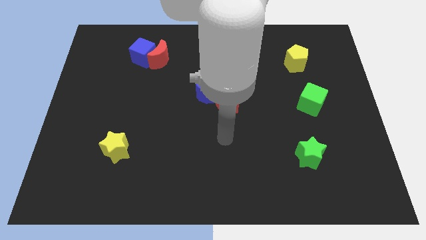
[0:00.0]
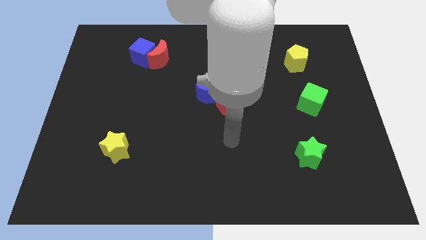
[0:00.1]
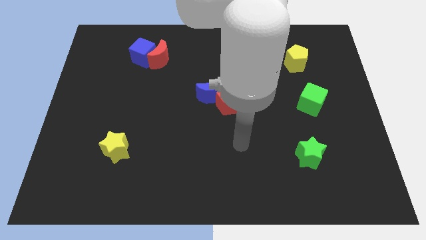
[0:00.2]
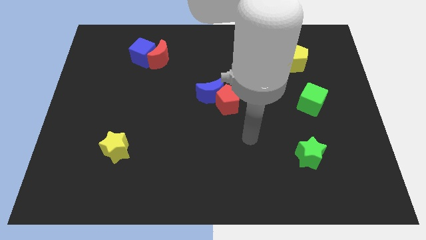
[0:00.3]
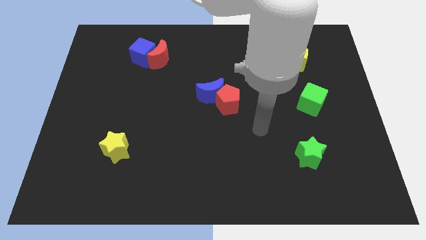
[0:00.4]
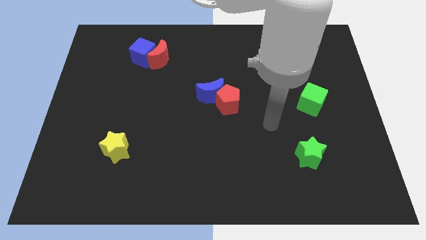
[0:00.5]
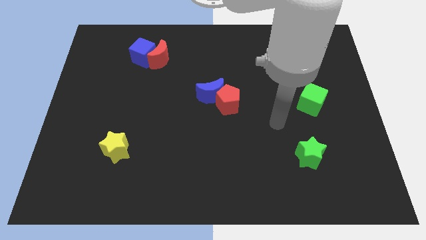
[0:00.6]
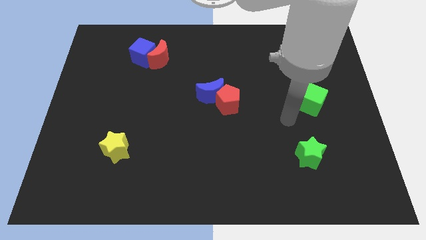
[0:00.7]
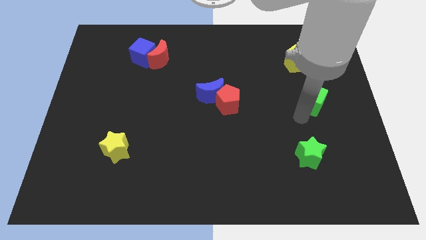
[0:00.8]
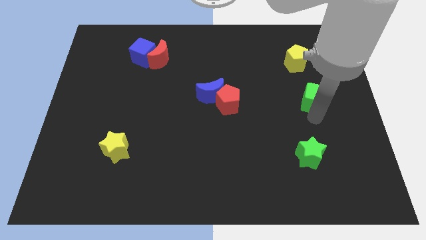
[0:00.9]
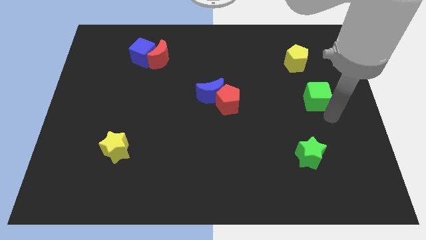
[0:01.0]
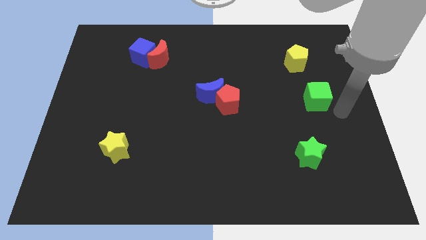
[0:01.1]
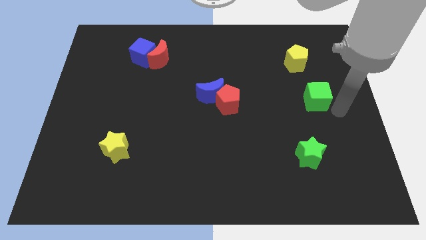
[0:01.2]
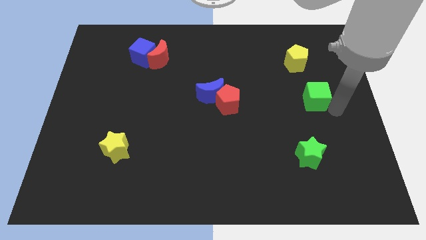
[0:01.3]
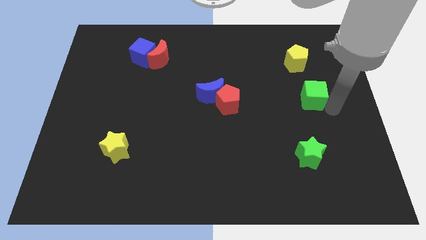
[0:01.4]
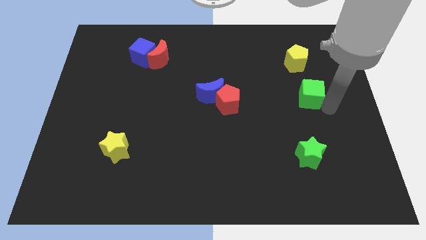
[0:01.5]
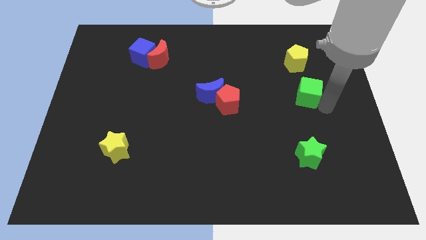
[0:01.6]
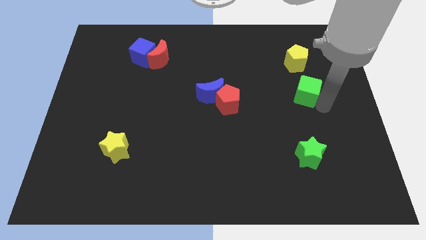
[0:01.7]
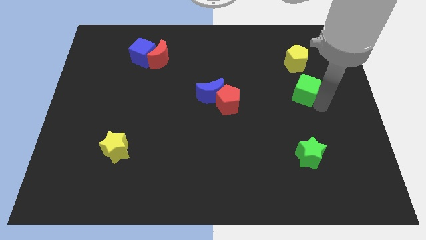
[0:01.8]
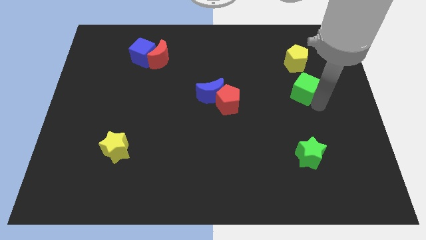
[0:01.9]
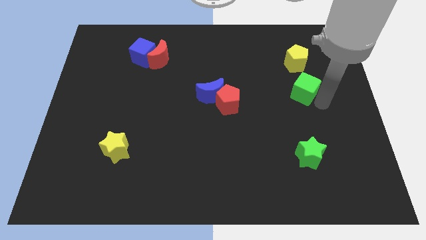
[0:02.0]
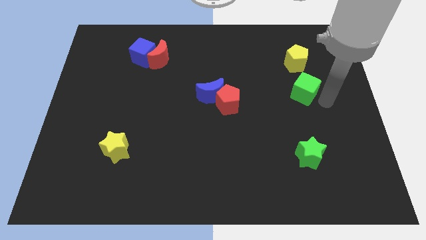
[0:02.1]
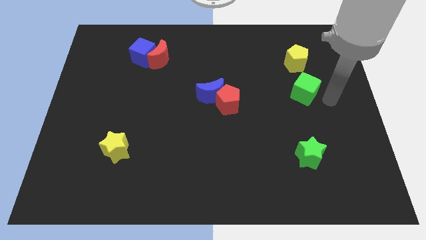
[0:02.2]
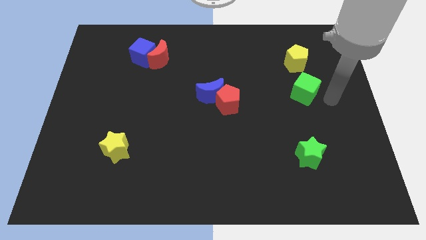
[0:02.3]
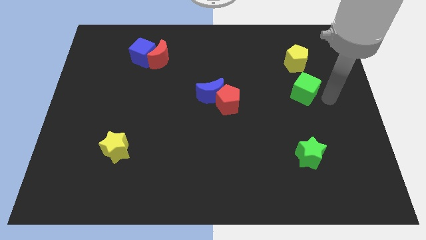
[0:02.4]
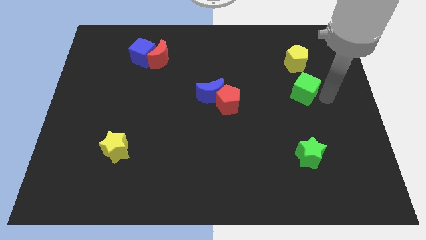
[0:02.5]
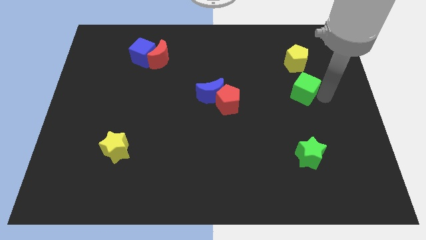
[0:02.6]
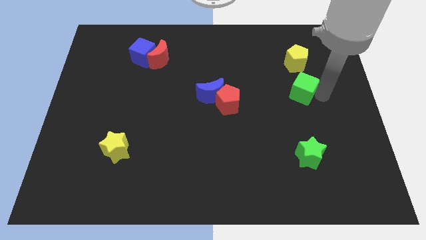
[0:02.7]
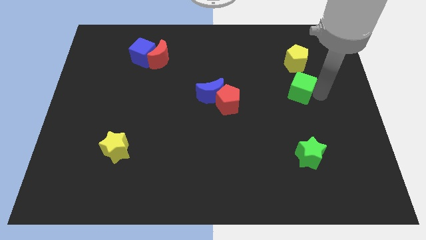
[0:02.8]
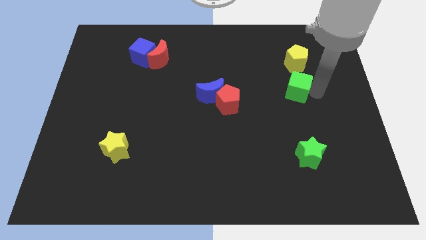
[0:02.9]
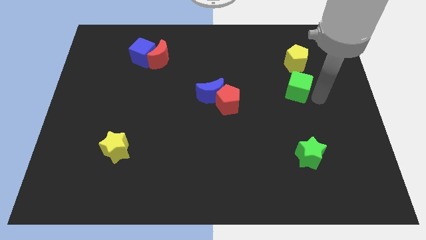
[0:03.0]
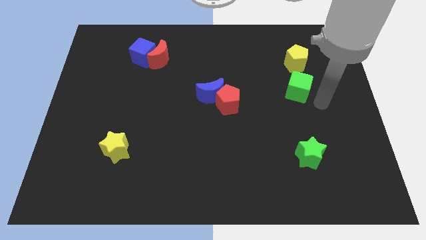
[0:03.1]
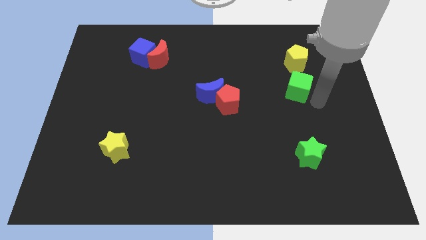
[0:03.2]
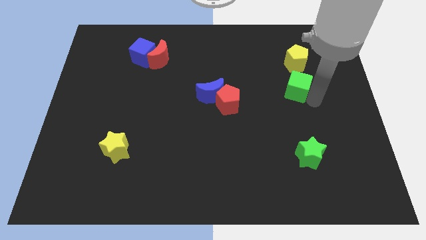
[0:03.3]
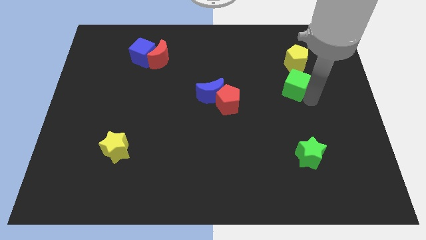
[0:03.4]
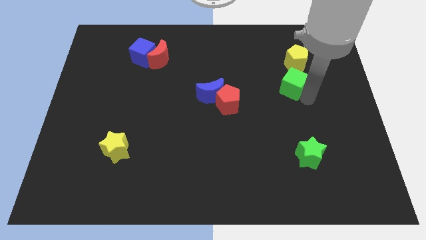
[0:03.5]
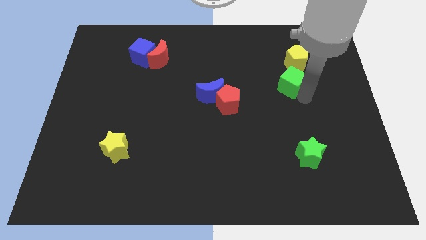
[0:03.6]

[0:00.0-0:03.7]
slightly move the green cube diagonally up and left

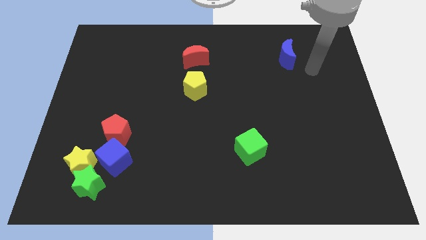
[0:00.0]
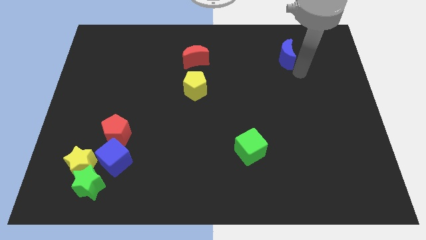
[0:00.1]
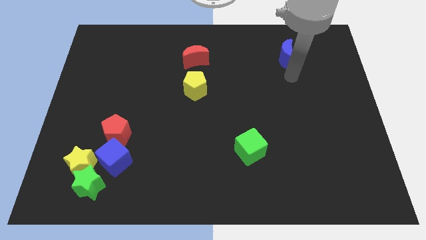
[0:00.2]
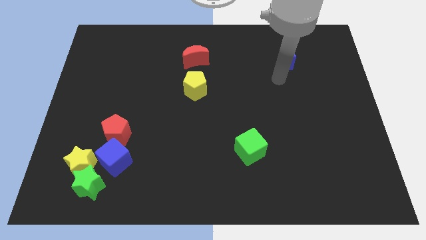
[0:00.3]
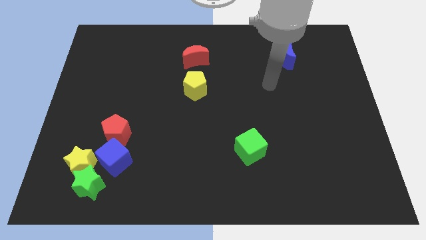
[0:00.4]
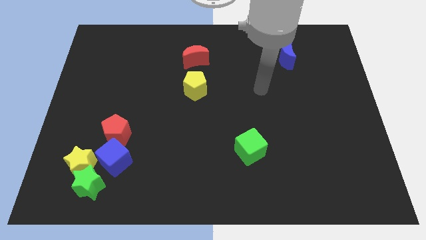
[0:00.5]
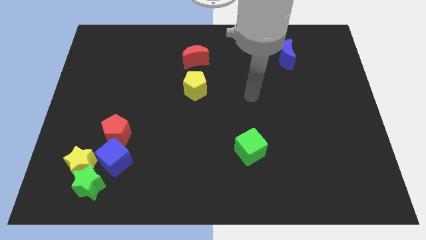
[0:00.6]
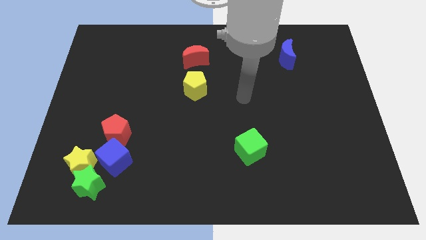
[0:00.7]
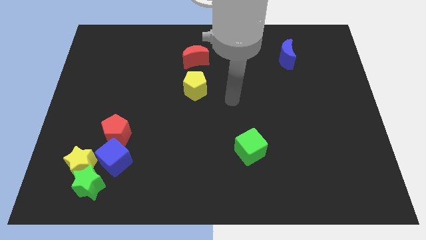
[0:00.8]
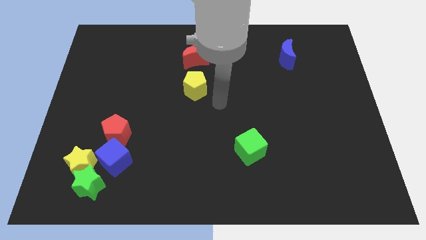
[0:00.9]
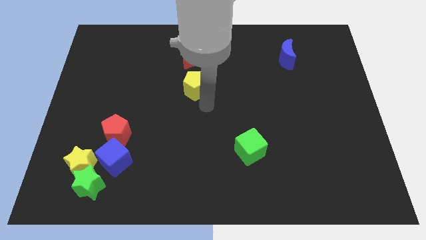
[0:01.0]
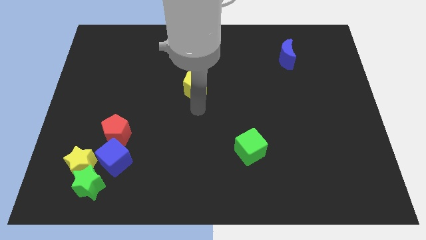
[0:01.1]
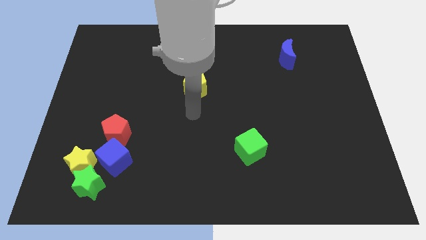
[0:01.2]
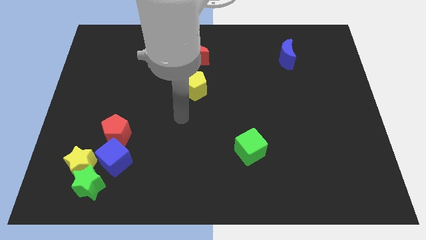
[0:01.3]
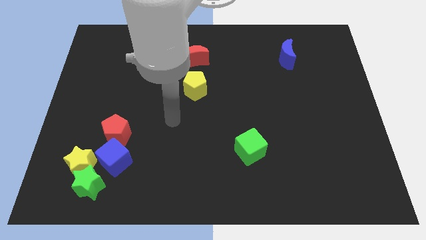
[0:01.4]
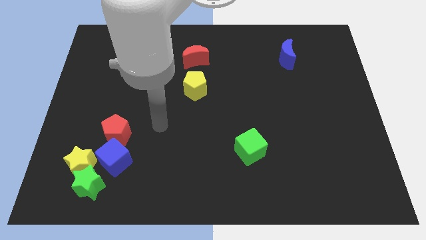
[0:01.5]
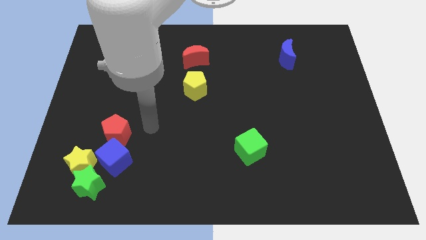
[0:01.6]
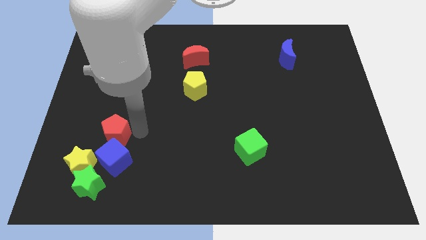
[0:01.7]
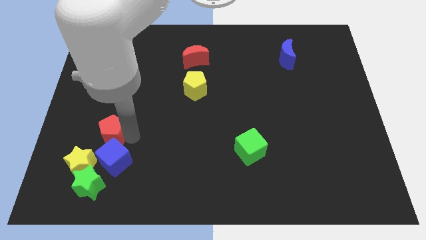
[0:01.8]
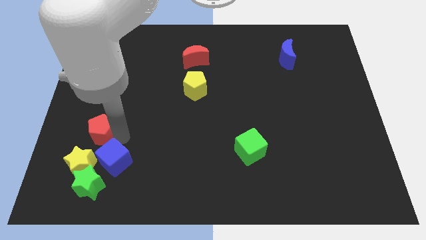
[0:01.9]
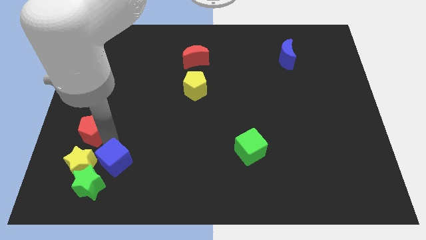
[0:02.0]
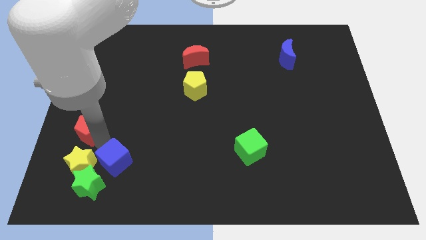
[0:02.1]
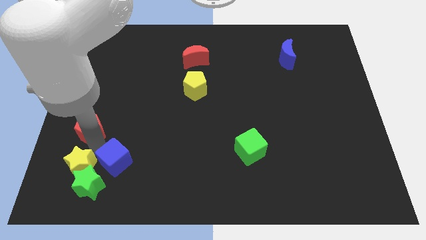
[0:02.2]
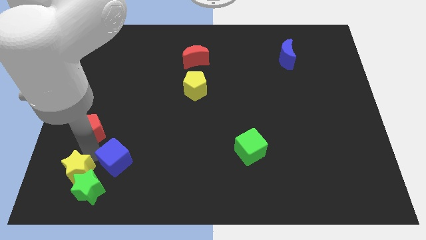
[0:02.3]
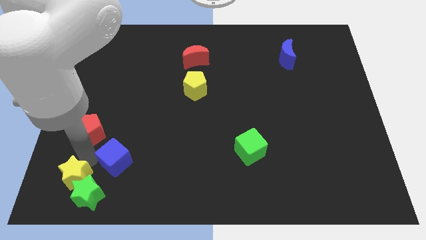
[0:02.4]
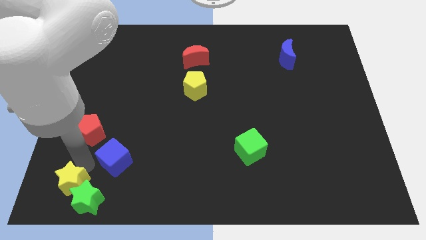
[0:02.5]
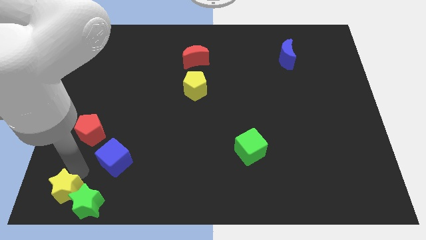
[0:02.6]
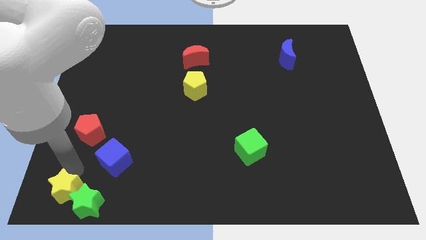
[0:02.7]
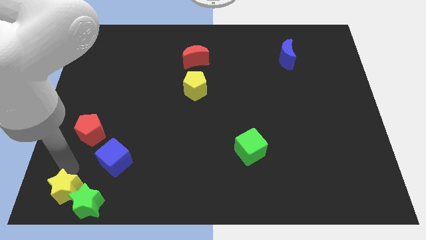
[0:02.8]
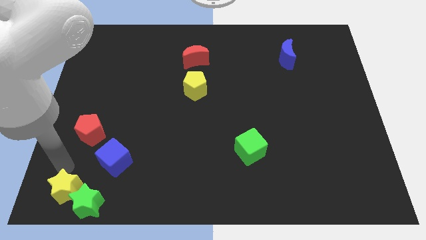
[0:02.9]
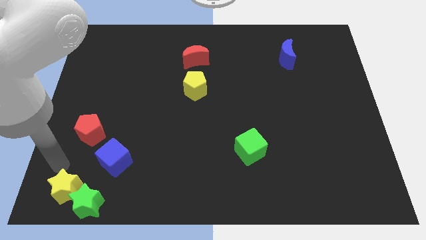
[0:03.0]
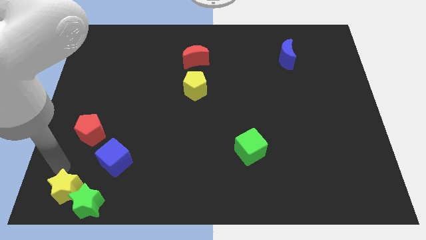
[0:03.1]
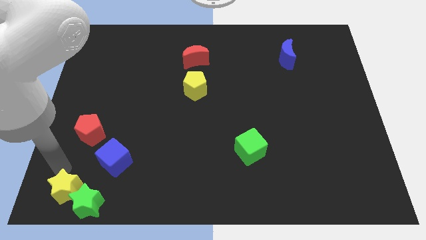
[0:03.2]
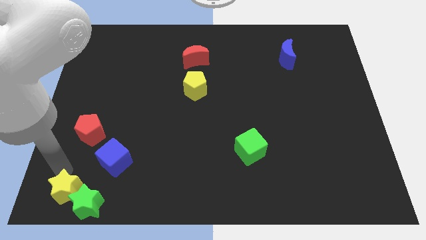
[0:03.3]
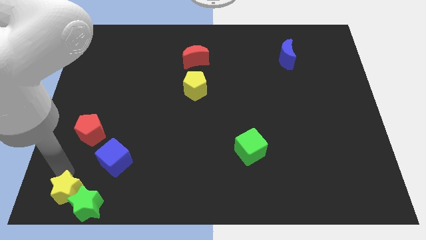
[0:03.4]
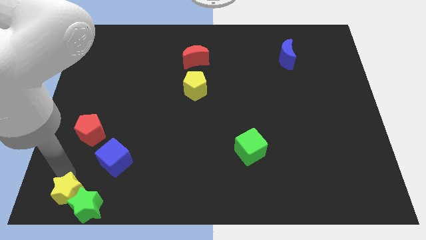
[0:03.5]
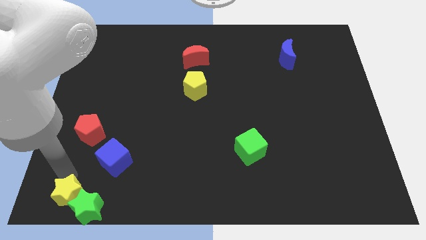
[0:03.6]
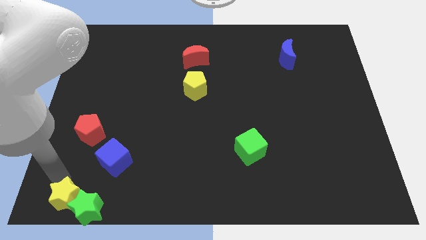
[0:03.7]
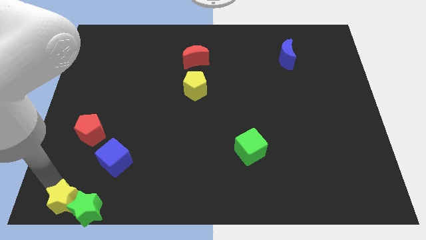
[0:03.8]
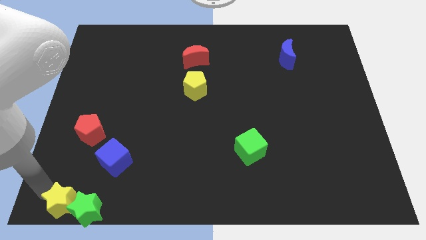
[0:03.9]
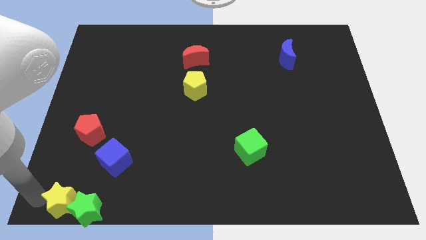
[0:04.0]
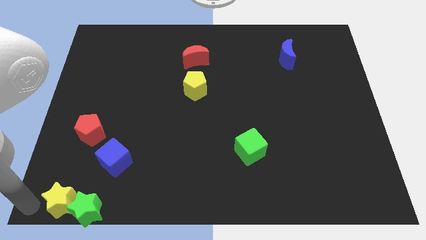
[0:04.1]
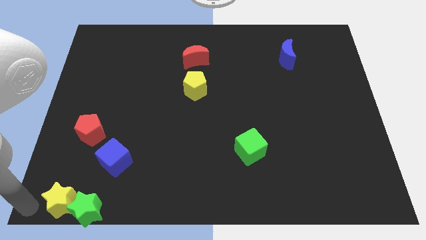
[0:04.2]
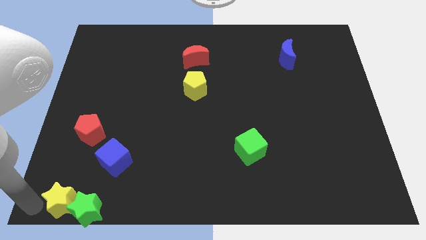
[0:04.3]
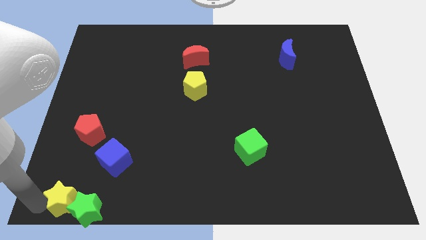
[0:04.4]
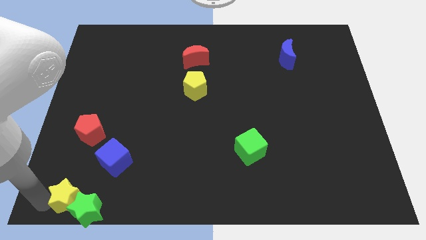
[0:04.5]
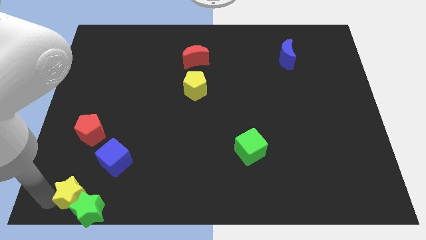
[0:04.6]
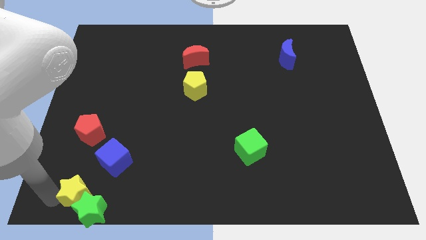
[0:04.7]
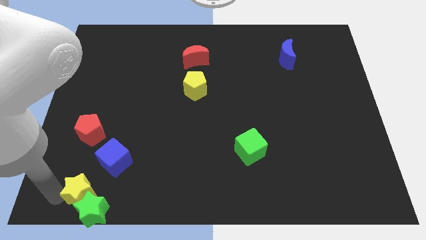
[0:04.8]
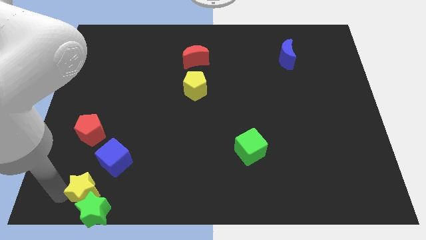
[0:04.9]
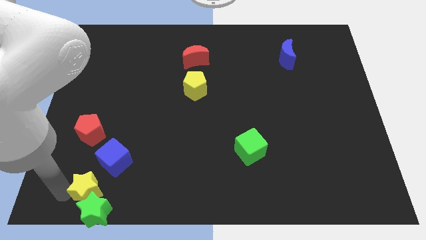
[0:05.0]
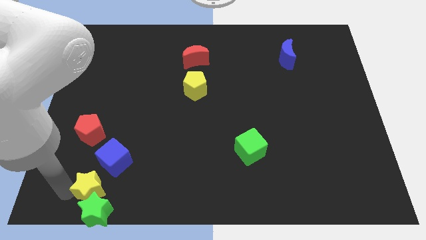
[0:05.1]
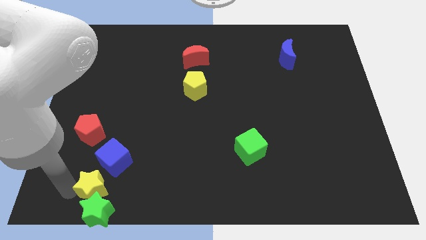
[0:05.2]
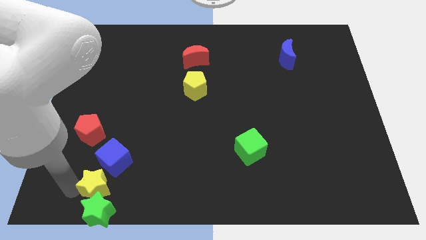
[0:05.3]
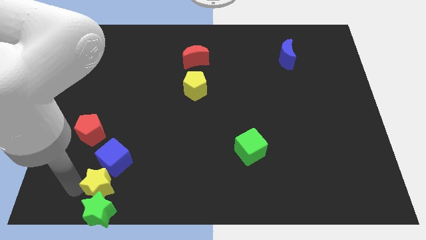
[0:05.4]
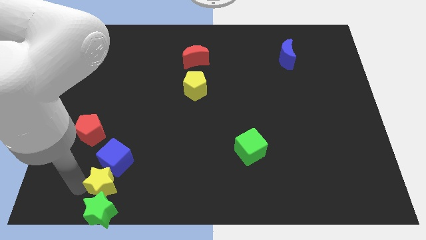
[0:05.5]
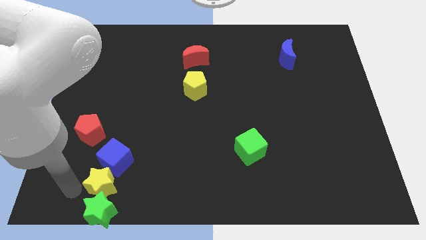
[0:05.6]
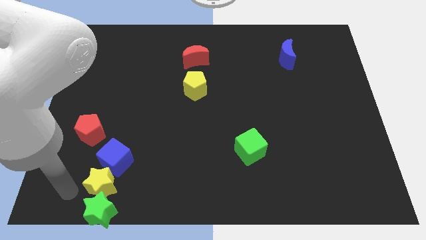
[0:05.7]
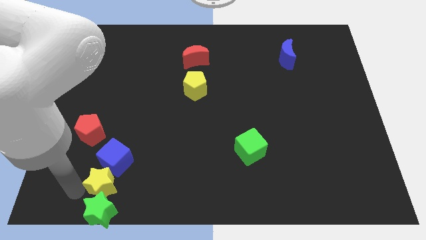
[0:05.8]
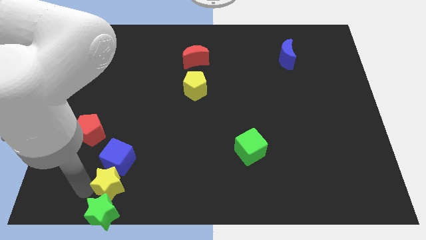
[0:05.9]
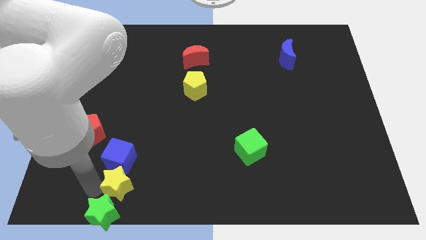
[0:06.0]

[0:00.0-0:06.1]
slide the yellow star right a bit
